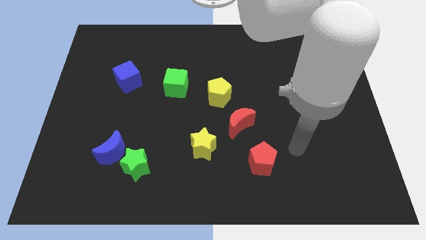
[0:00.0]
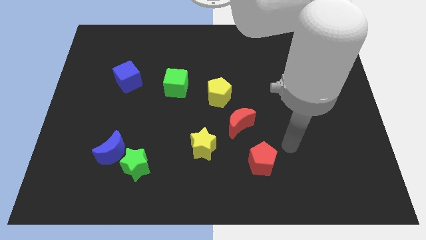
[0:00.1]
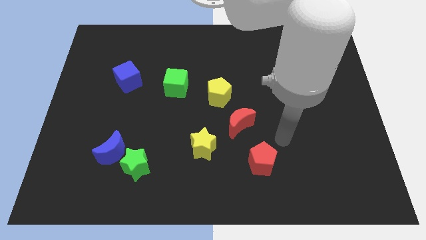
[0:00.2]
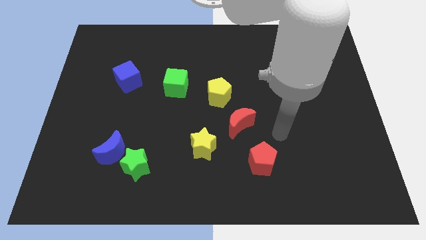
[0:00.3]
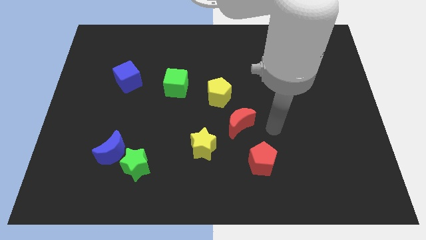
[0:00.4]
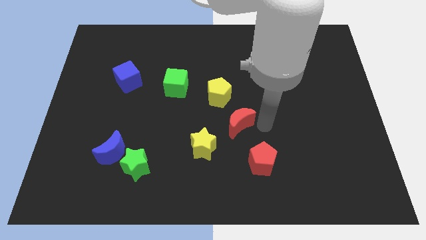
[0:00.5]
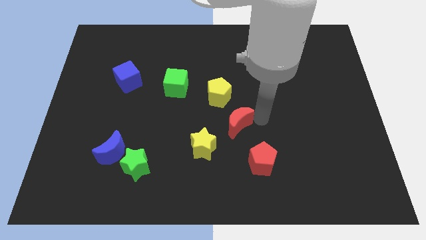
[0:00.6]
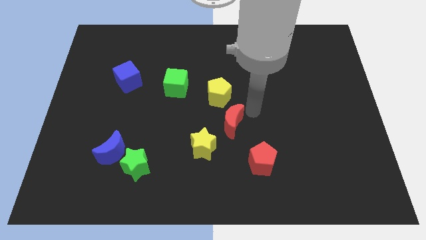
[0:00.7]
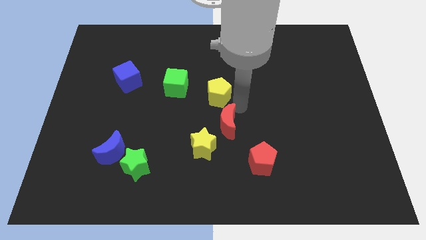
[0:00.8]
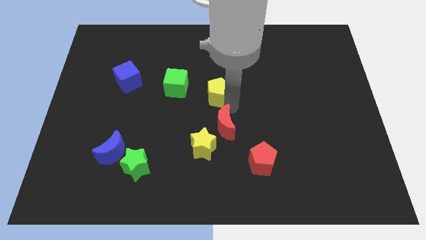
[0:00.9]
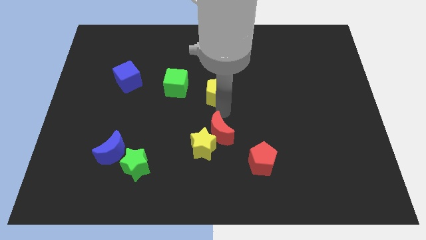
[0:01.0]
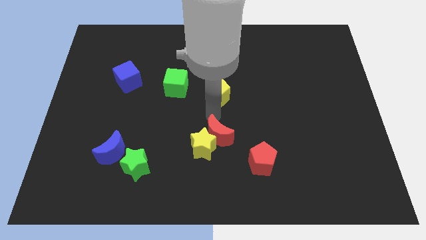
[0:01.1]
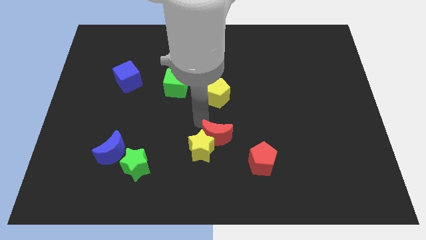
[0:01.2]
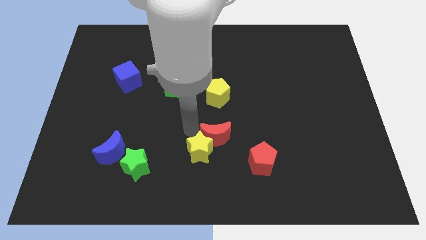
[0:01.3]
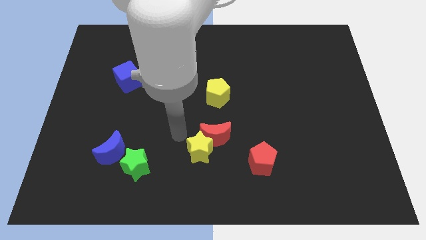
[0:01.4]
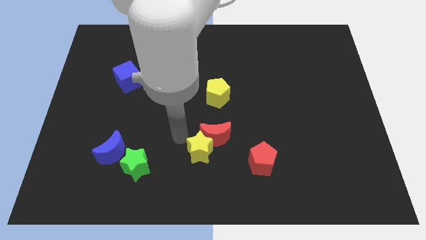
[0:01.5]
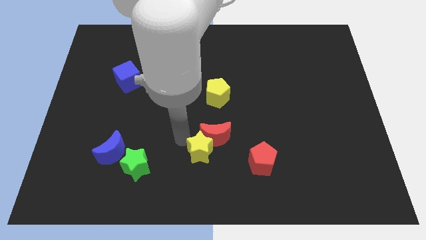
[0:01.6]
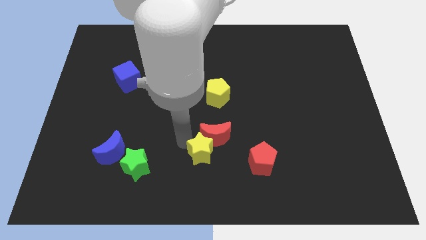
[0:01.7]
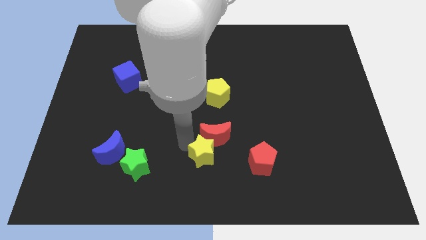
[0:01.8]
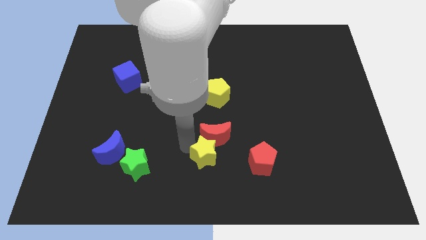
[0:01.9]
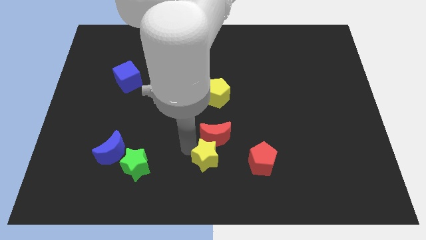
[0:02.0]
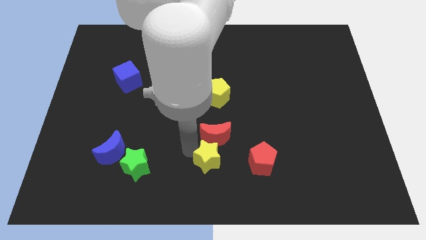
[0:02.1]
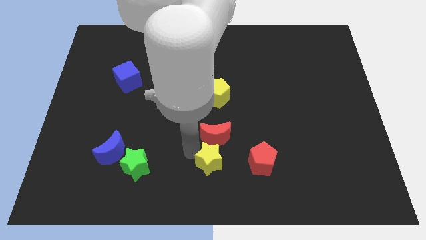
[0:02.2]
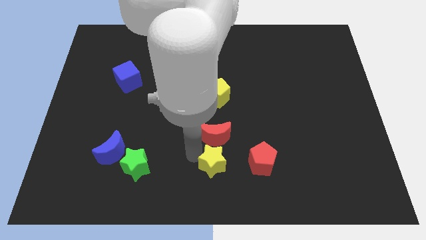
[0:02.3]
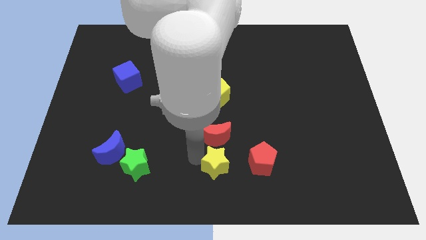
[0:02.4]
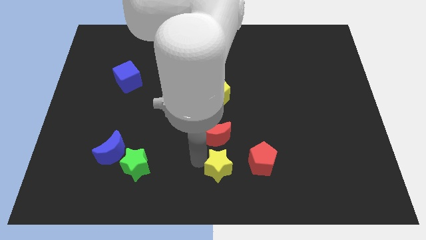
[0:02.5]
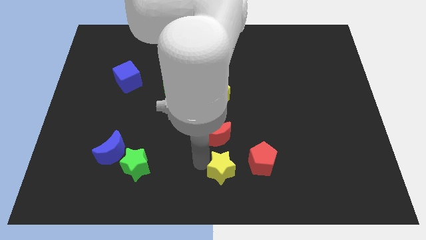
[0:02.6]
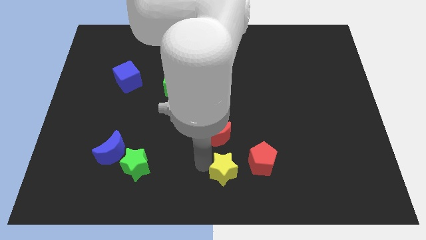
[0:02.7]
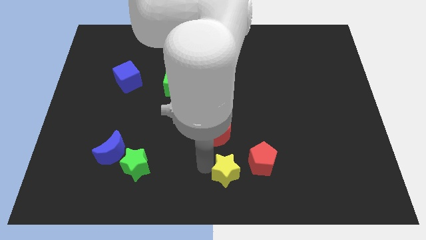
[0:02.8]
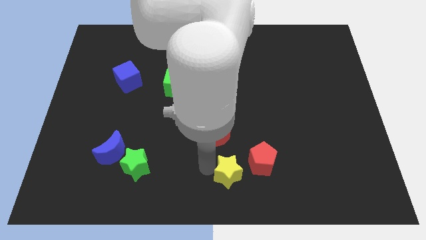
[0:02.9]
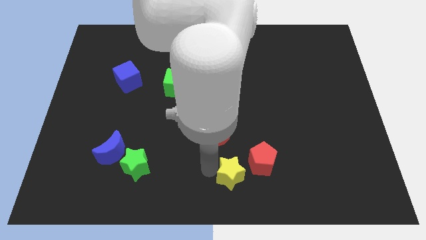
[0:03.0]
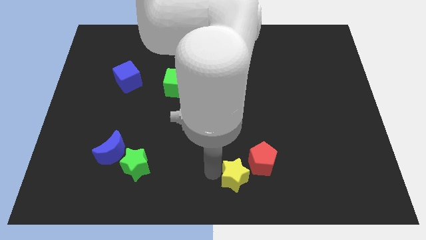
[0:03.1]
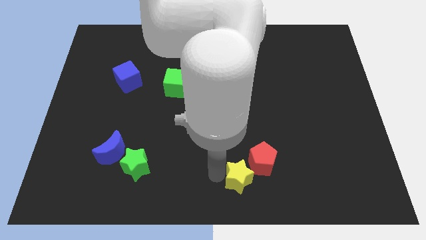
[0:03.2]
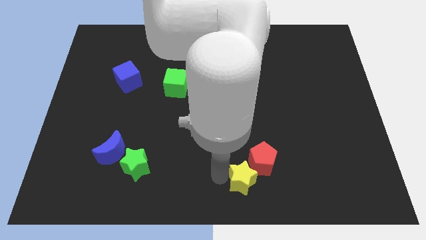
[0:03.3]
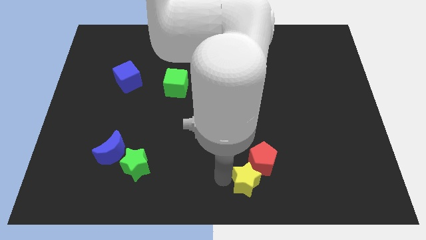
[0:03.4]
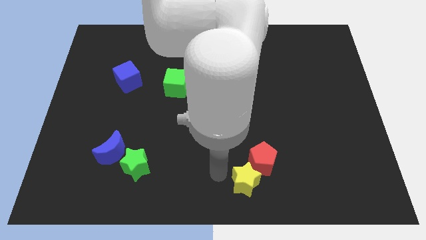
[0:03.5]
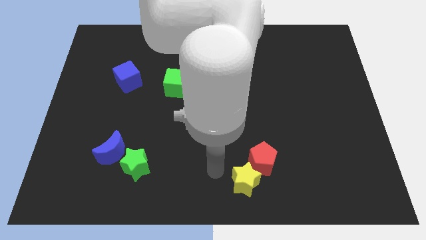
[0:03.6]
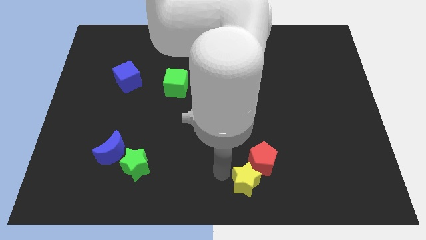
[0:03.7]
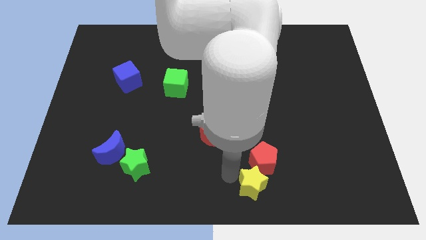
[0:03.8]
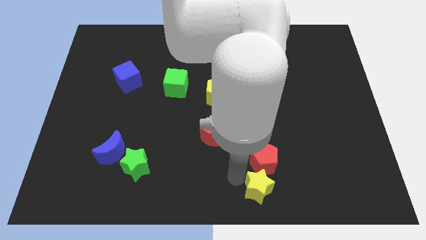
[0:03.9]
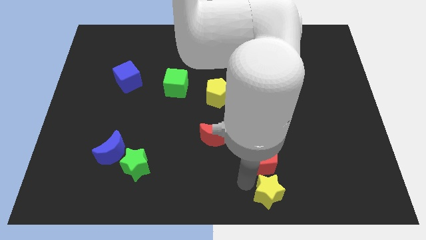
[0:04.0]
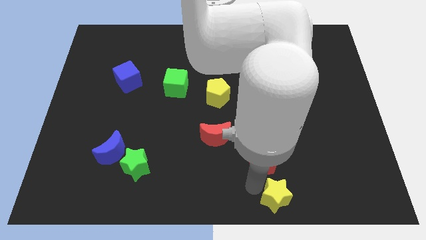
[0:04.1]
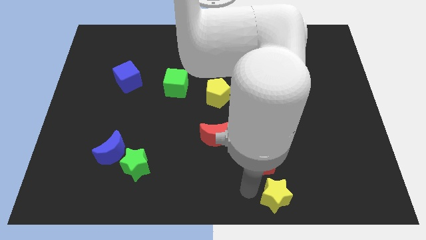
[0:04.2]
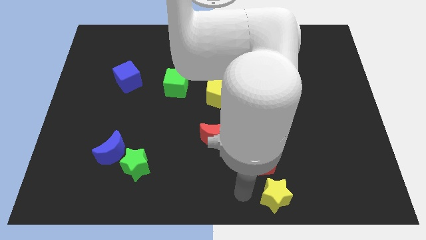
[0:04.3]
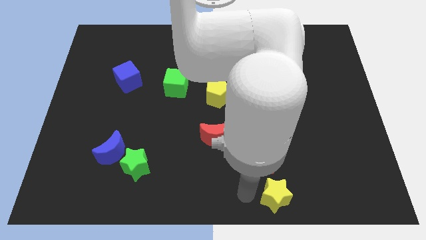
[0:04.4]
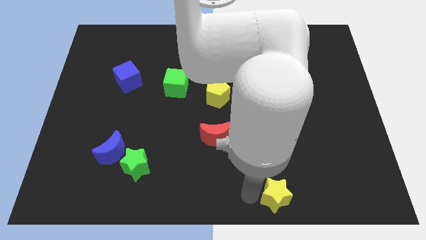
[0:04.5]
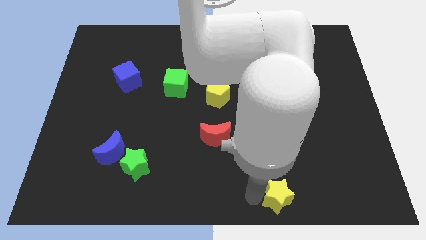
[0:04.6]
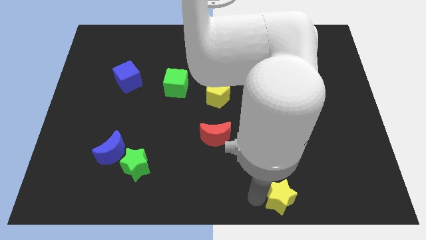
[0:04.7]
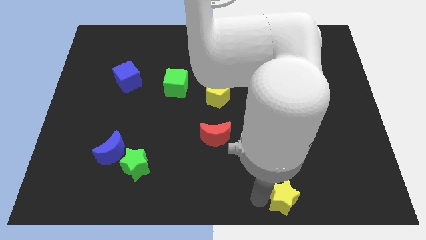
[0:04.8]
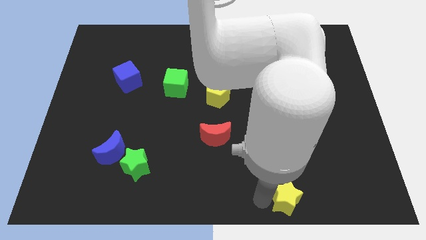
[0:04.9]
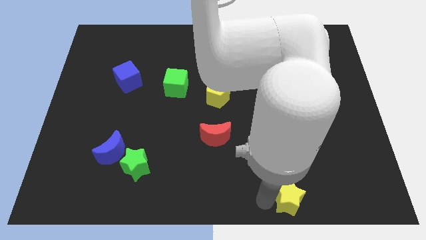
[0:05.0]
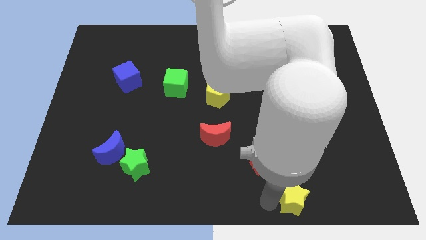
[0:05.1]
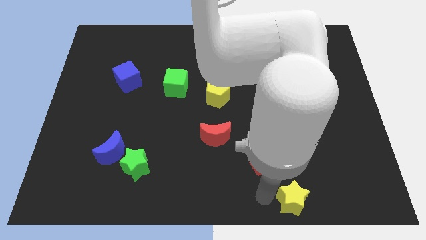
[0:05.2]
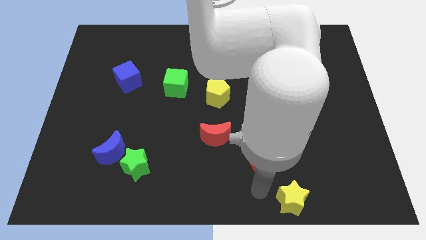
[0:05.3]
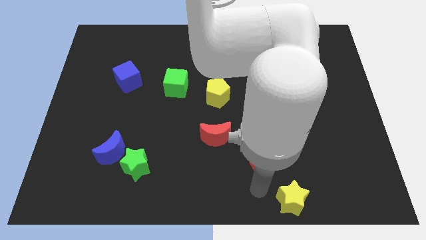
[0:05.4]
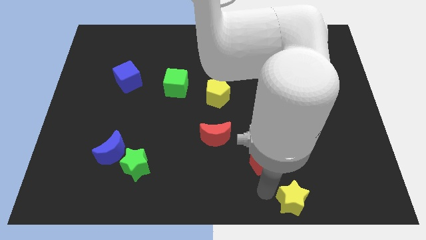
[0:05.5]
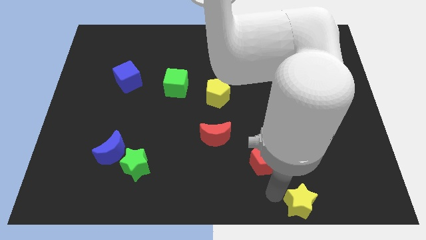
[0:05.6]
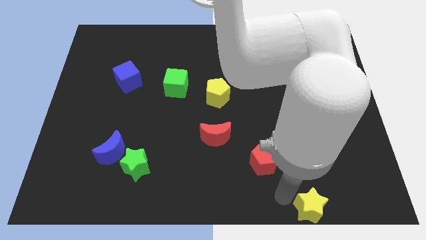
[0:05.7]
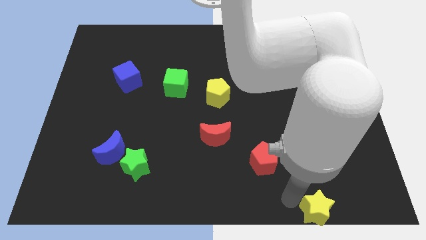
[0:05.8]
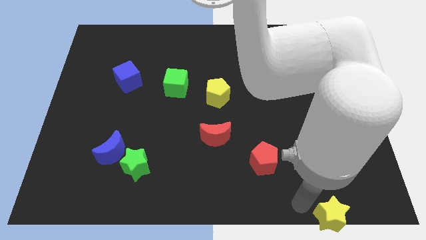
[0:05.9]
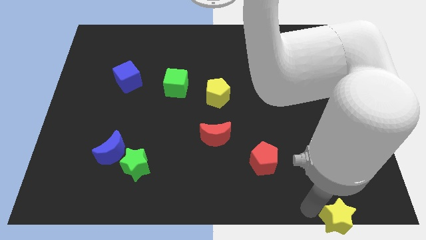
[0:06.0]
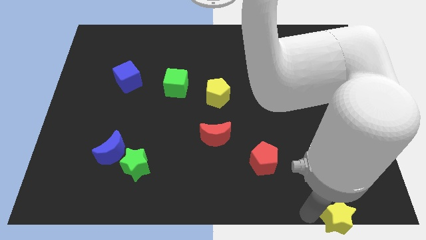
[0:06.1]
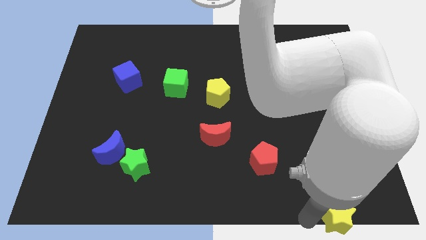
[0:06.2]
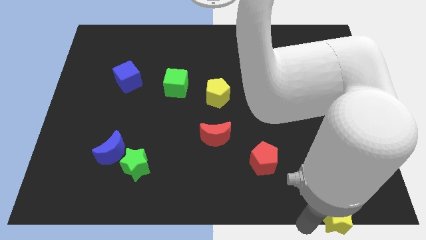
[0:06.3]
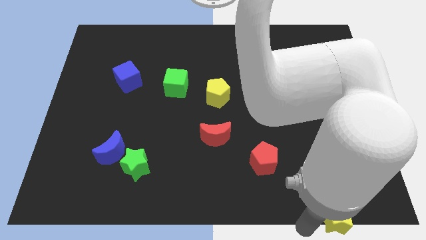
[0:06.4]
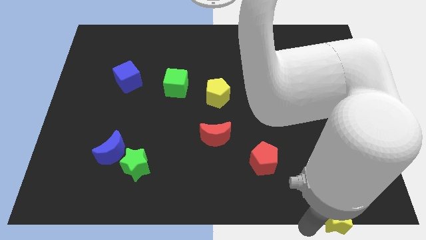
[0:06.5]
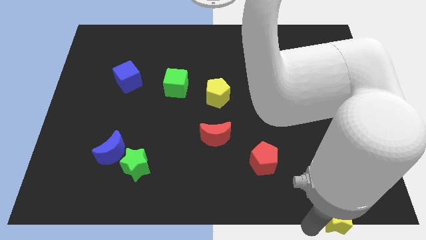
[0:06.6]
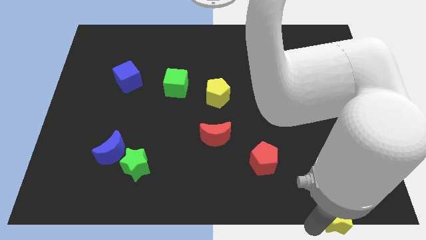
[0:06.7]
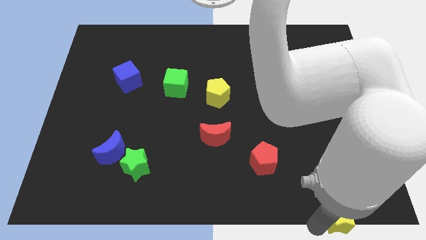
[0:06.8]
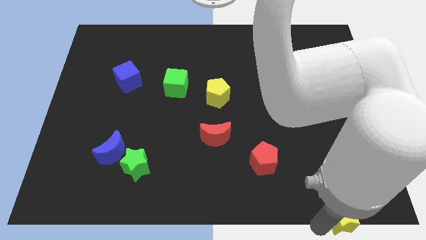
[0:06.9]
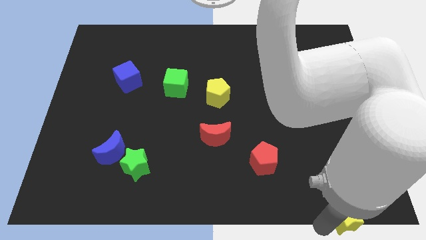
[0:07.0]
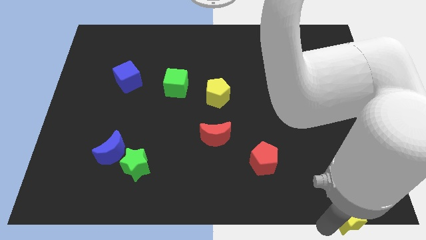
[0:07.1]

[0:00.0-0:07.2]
push the yellow star to the bottom right corner
